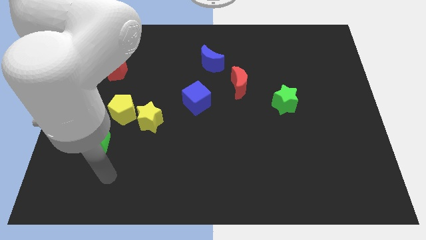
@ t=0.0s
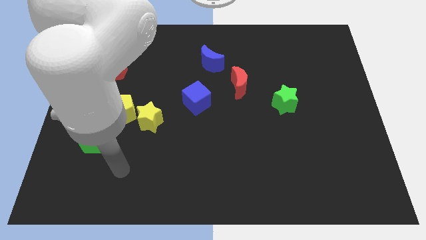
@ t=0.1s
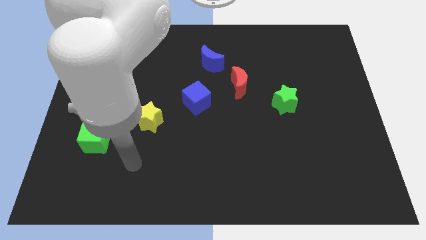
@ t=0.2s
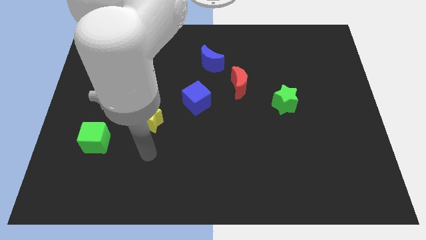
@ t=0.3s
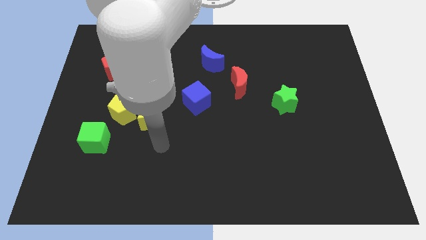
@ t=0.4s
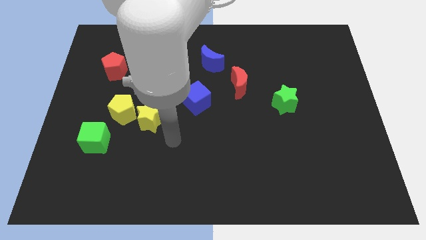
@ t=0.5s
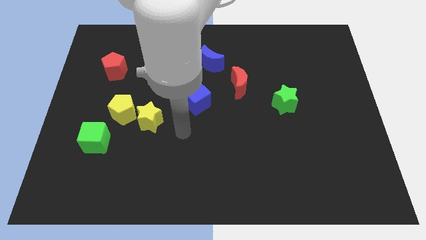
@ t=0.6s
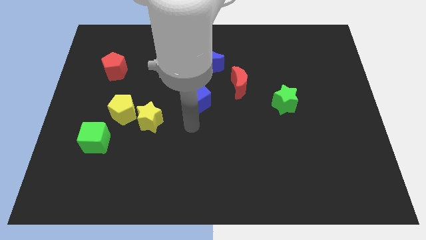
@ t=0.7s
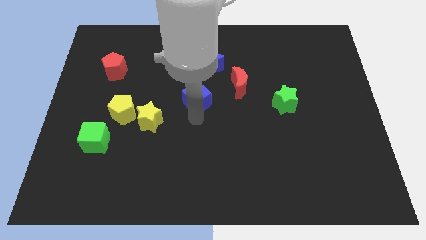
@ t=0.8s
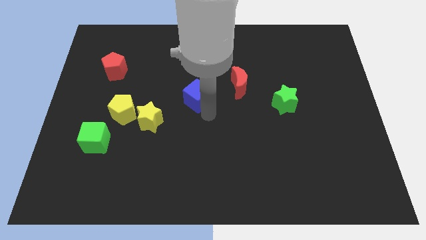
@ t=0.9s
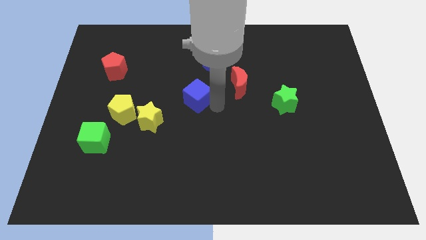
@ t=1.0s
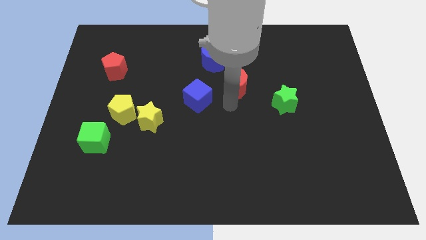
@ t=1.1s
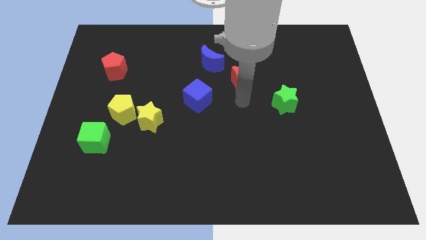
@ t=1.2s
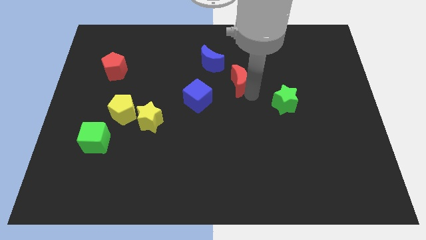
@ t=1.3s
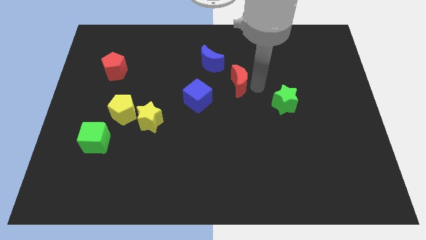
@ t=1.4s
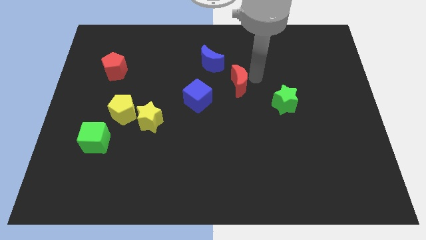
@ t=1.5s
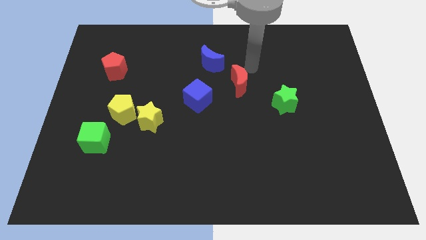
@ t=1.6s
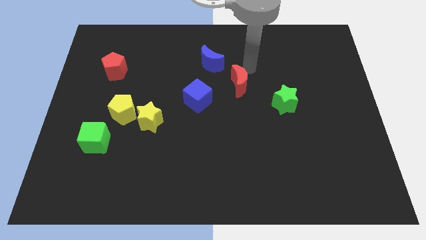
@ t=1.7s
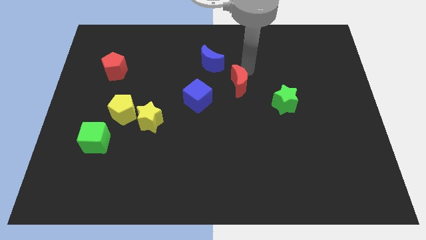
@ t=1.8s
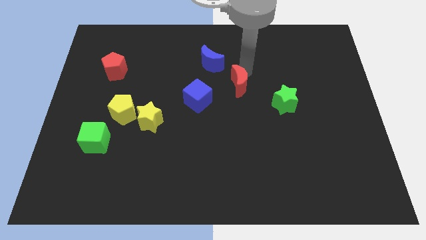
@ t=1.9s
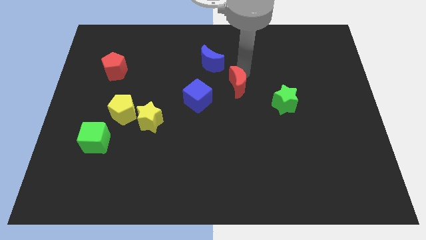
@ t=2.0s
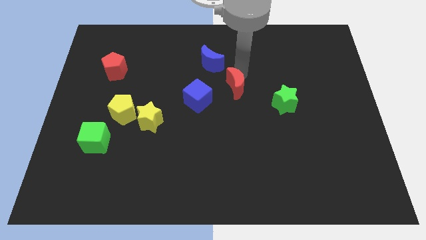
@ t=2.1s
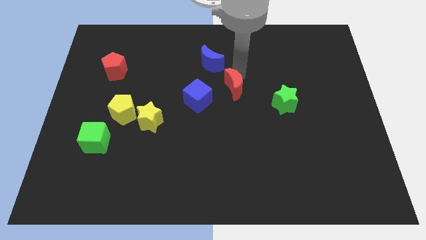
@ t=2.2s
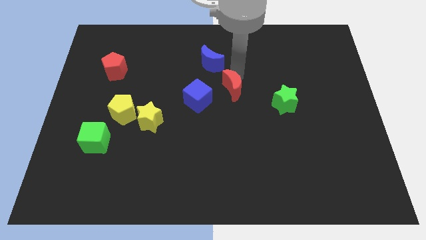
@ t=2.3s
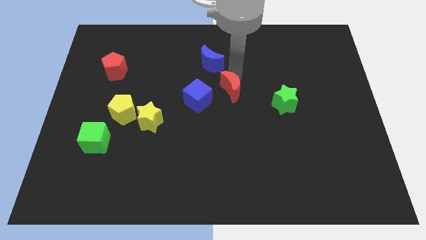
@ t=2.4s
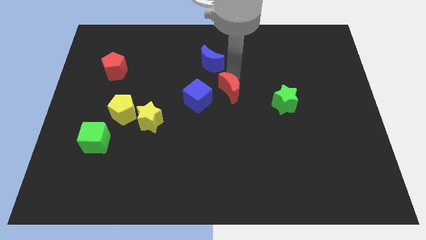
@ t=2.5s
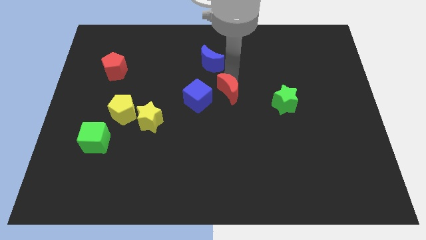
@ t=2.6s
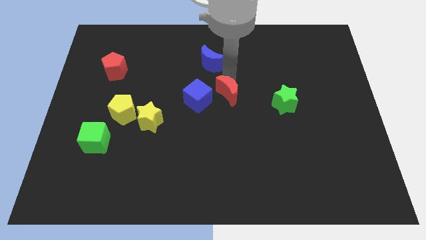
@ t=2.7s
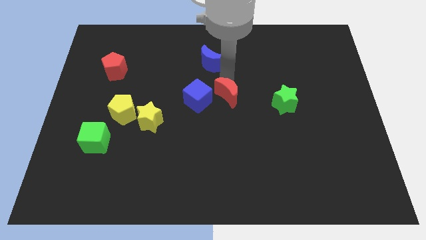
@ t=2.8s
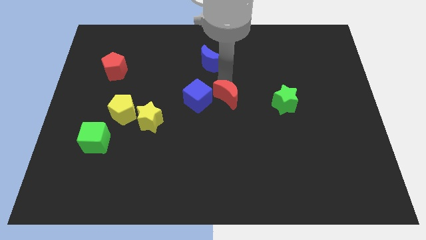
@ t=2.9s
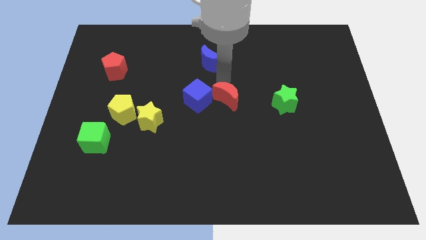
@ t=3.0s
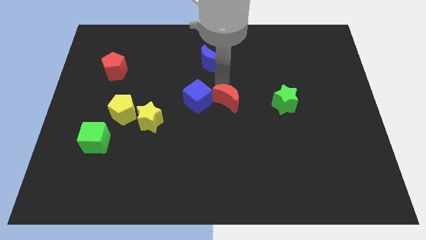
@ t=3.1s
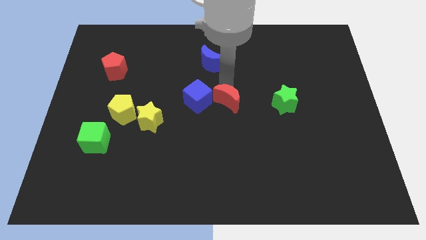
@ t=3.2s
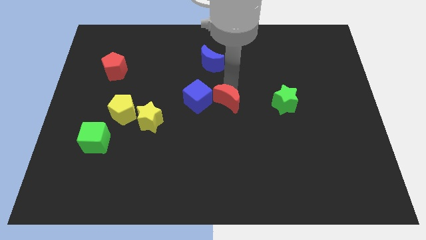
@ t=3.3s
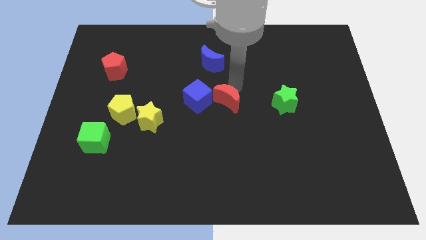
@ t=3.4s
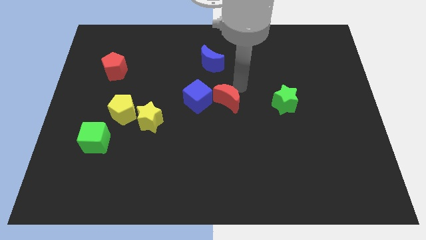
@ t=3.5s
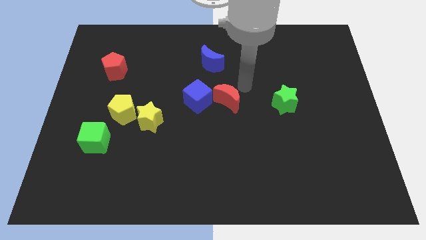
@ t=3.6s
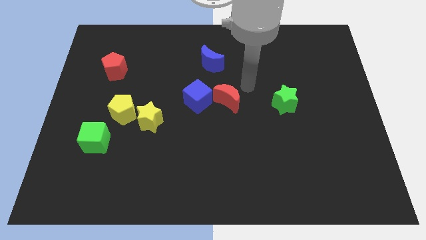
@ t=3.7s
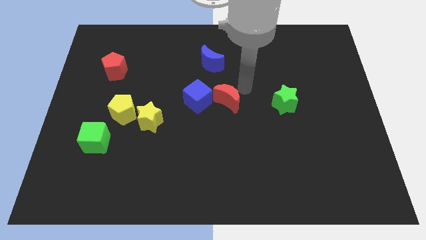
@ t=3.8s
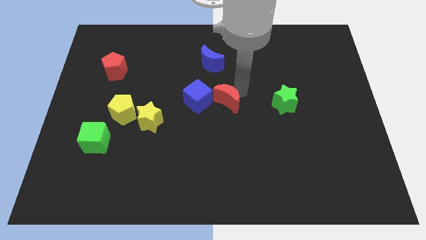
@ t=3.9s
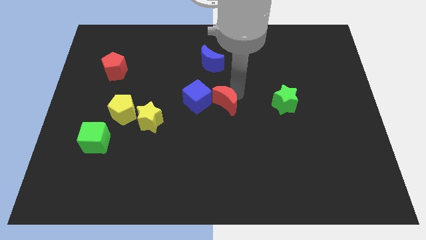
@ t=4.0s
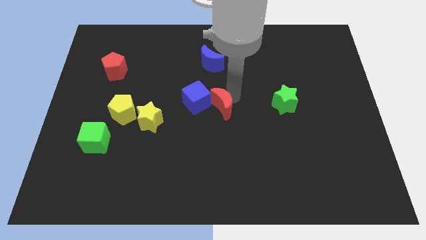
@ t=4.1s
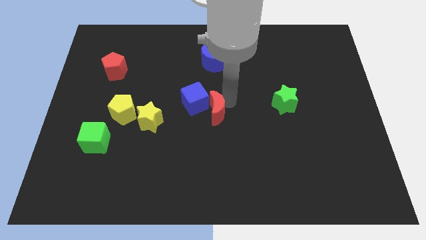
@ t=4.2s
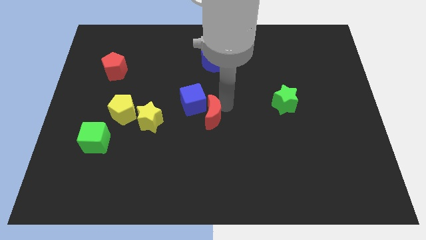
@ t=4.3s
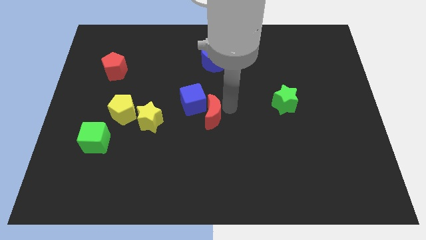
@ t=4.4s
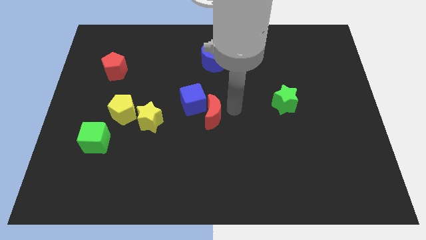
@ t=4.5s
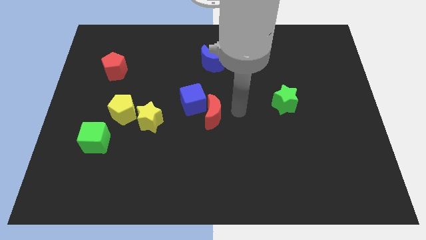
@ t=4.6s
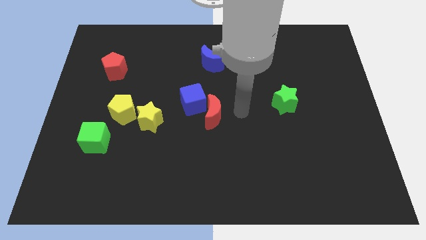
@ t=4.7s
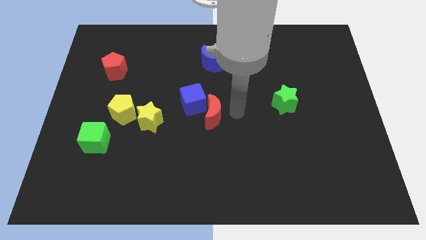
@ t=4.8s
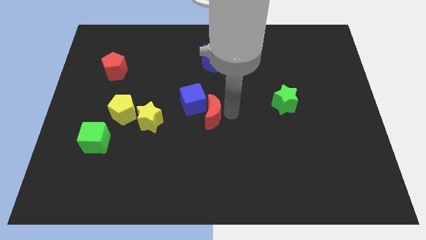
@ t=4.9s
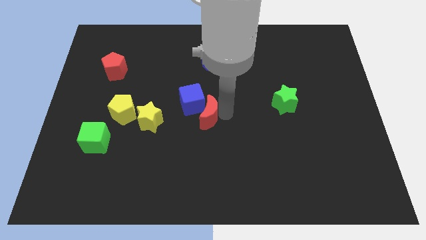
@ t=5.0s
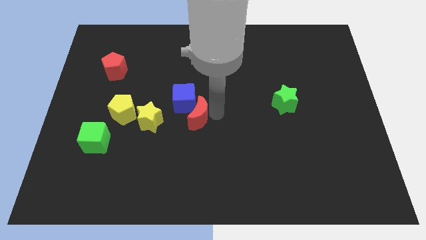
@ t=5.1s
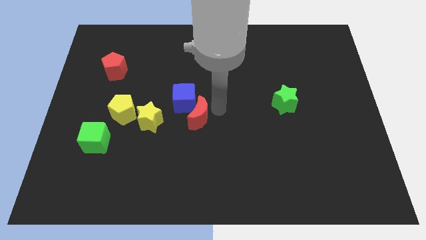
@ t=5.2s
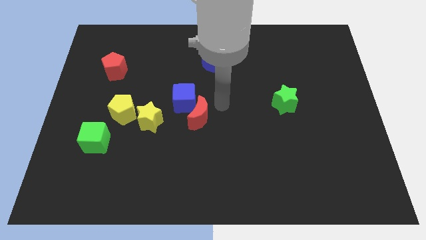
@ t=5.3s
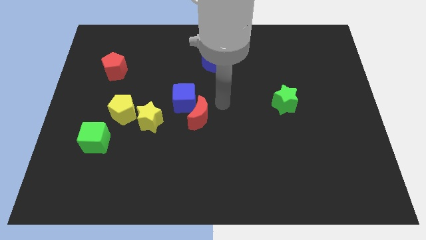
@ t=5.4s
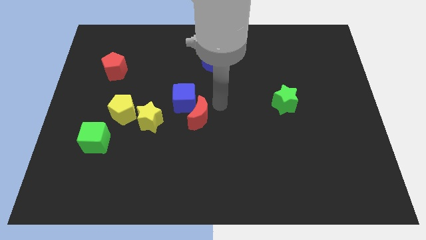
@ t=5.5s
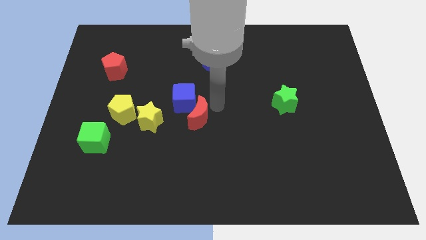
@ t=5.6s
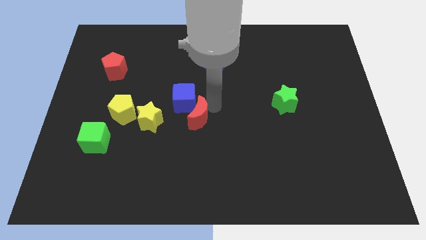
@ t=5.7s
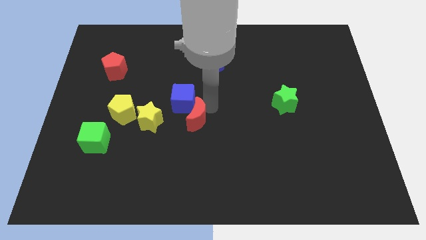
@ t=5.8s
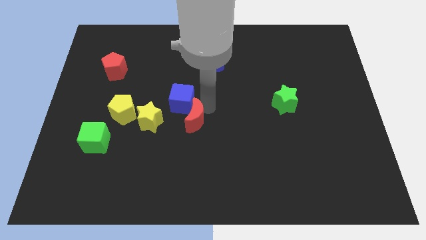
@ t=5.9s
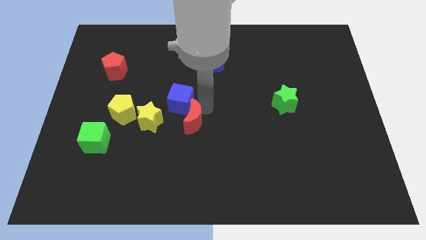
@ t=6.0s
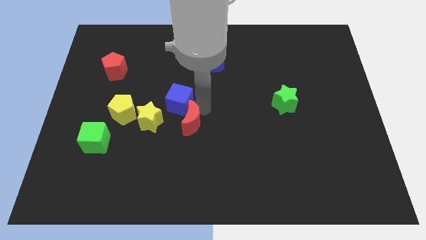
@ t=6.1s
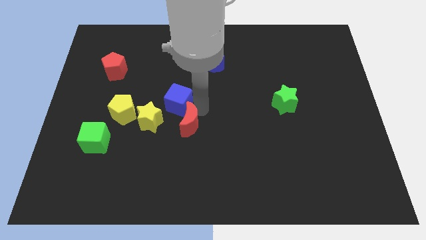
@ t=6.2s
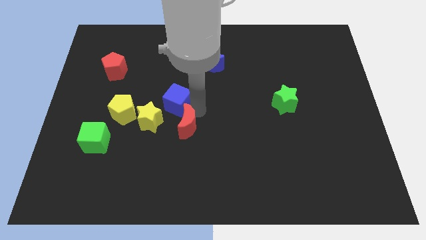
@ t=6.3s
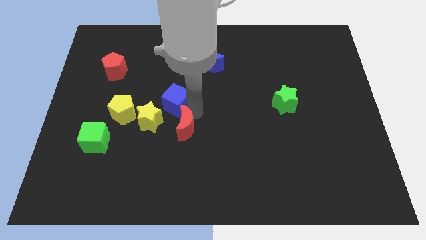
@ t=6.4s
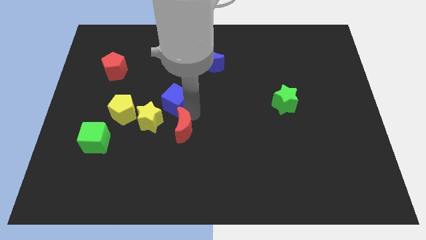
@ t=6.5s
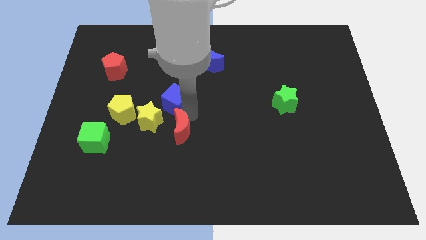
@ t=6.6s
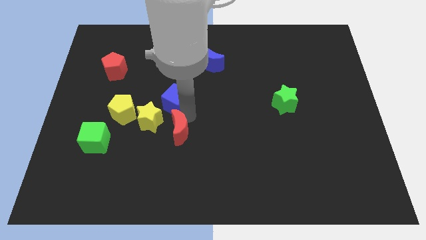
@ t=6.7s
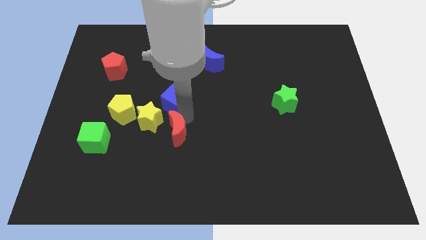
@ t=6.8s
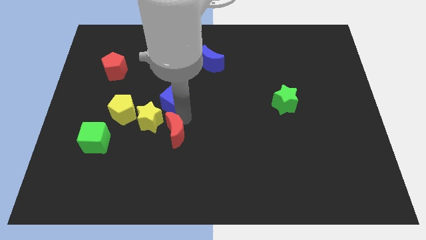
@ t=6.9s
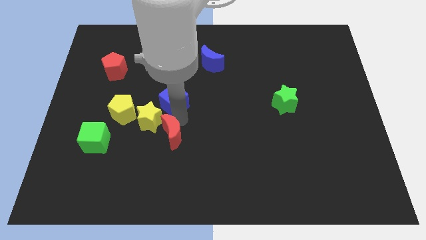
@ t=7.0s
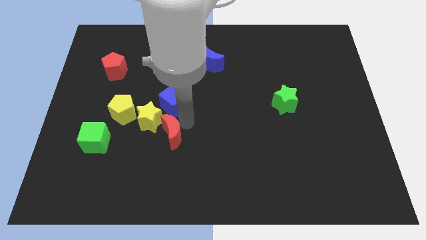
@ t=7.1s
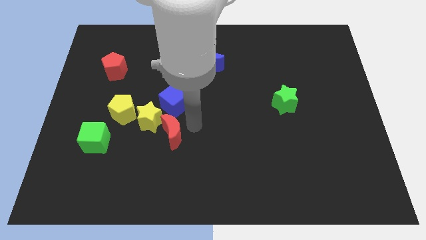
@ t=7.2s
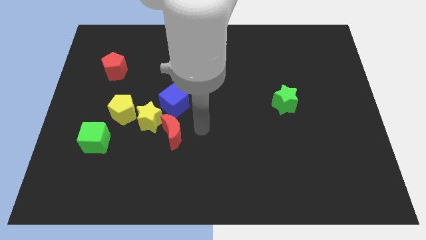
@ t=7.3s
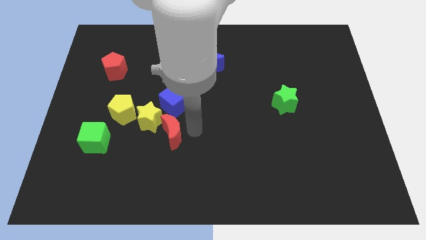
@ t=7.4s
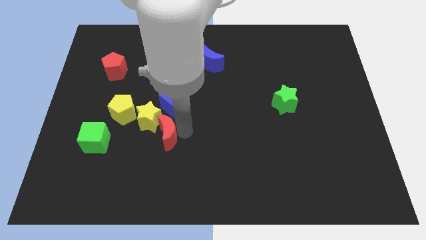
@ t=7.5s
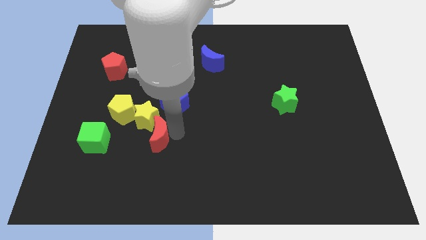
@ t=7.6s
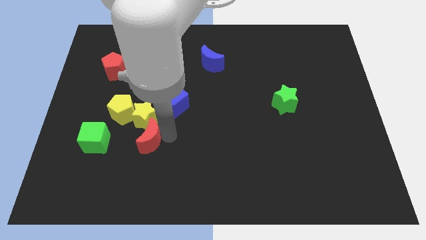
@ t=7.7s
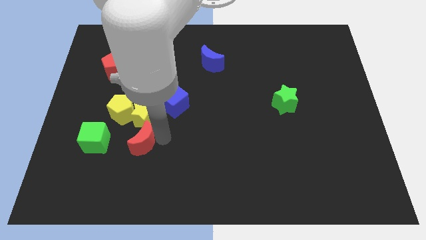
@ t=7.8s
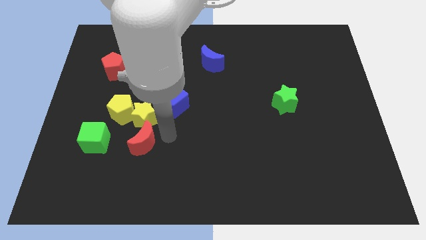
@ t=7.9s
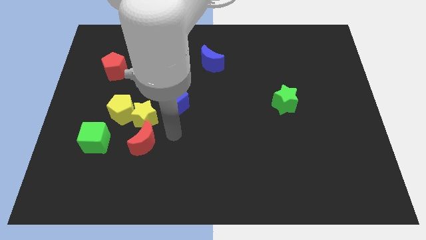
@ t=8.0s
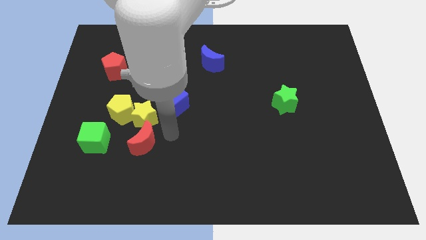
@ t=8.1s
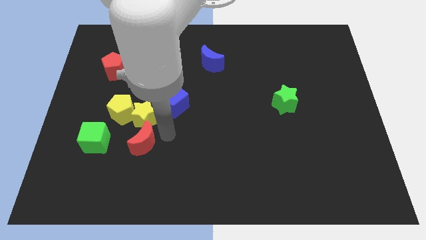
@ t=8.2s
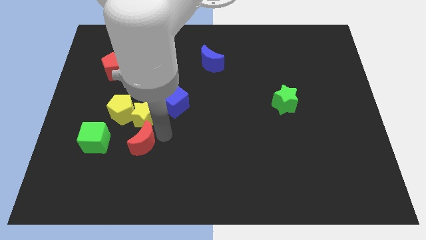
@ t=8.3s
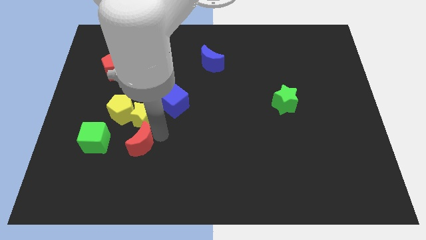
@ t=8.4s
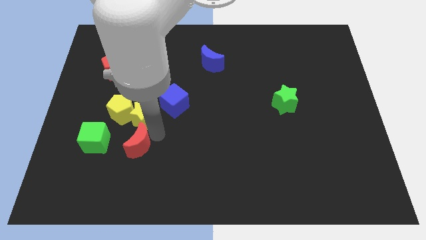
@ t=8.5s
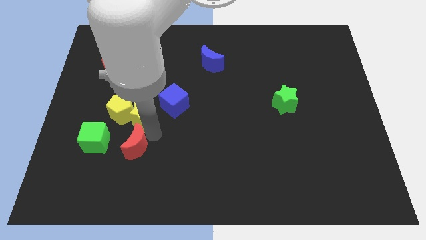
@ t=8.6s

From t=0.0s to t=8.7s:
put the red moon to the bottom side of the yellow pentagon
